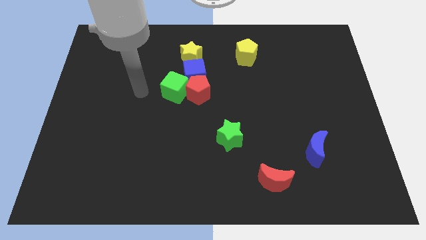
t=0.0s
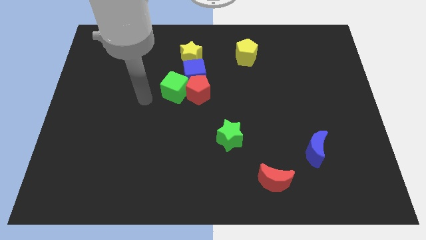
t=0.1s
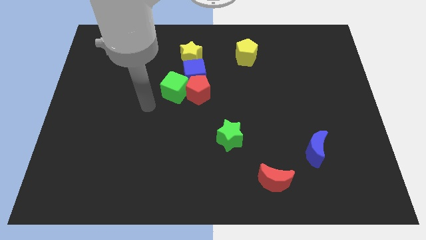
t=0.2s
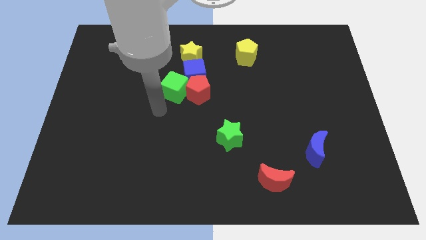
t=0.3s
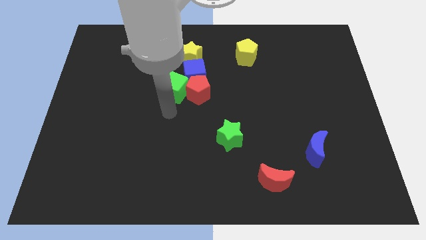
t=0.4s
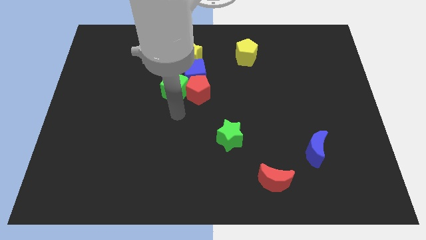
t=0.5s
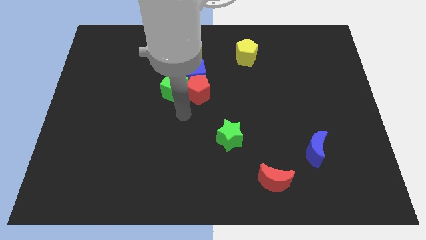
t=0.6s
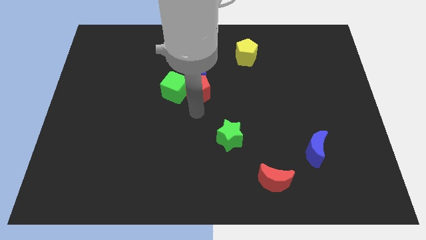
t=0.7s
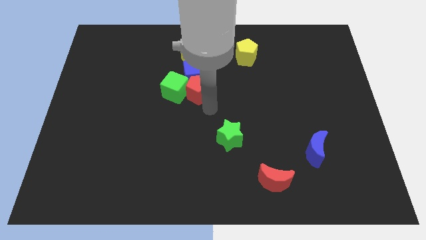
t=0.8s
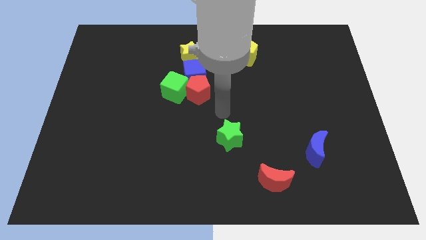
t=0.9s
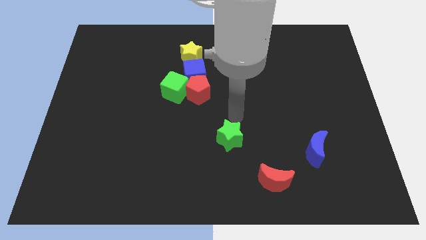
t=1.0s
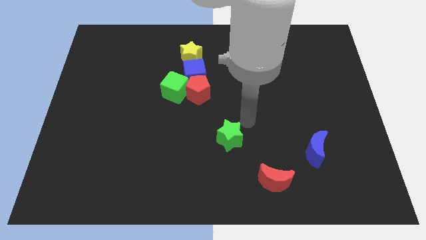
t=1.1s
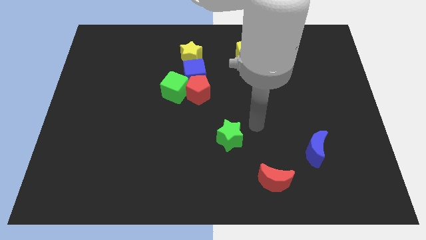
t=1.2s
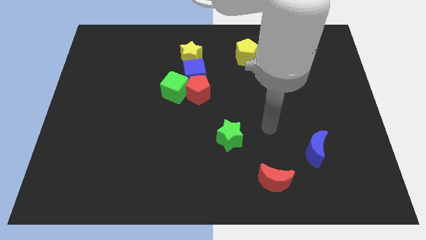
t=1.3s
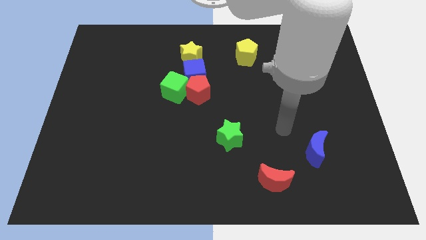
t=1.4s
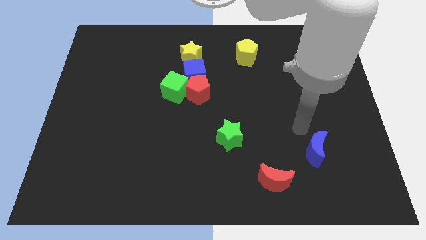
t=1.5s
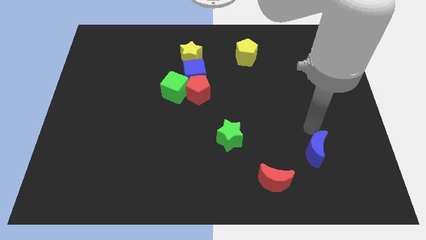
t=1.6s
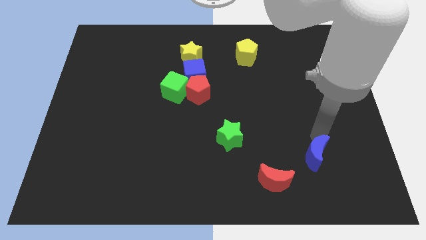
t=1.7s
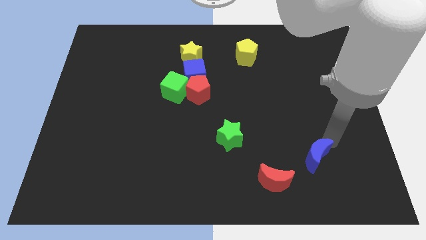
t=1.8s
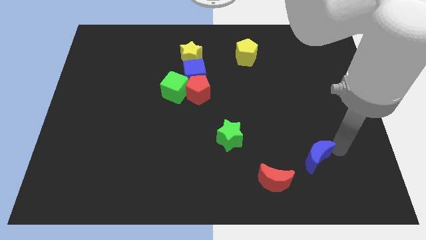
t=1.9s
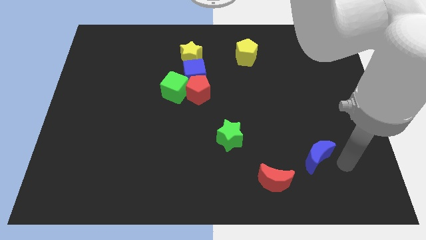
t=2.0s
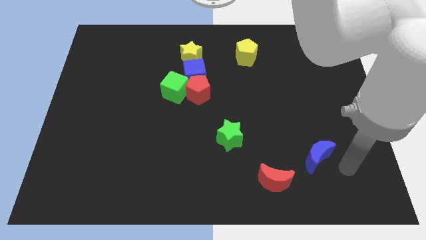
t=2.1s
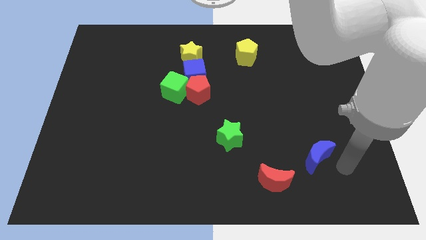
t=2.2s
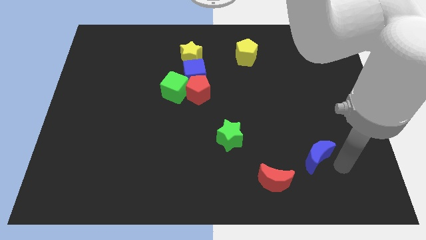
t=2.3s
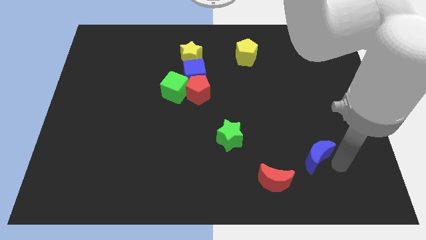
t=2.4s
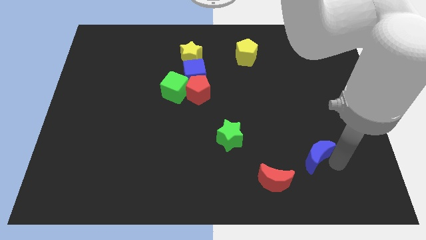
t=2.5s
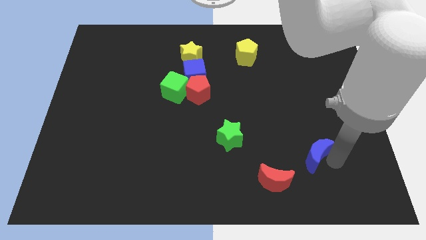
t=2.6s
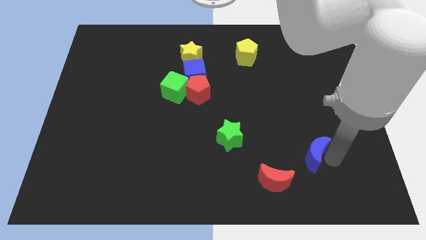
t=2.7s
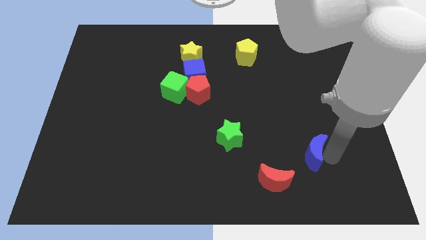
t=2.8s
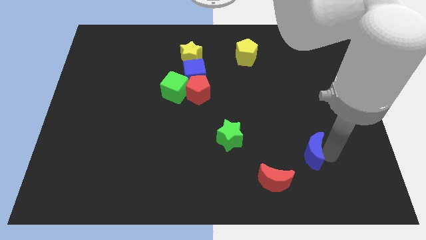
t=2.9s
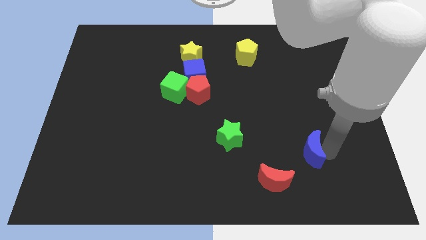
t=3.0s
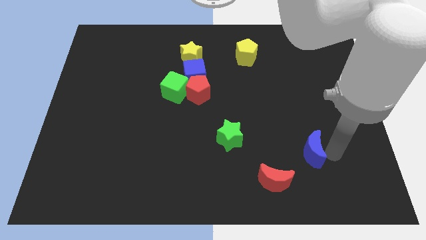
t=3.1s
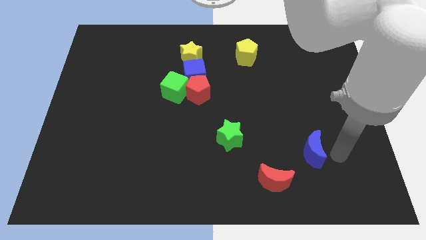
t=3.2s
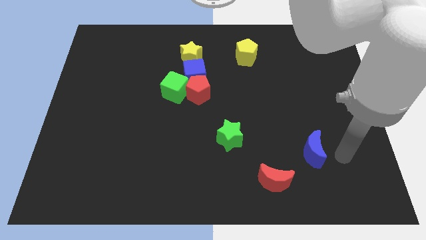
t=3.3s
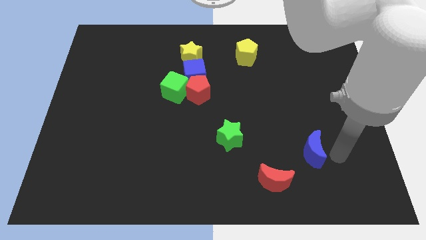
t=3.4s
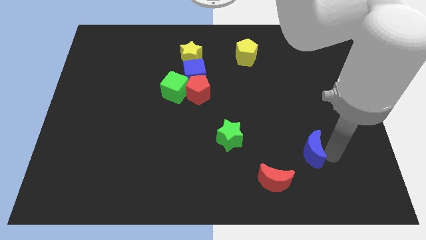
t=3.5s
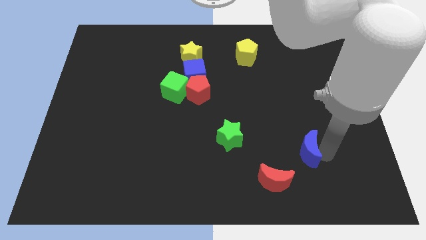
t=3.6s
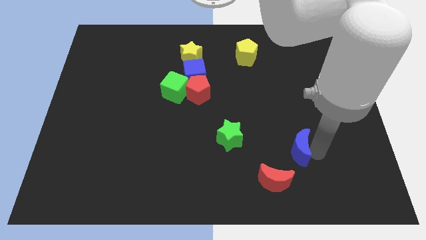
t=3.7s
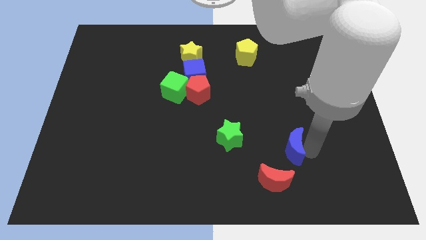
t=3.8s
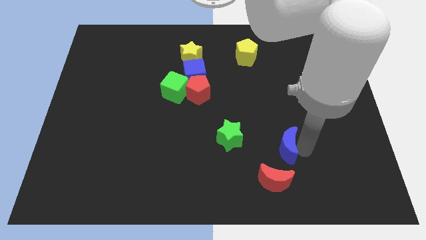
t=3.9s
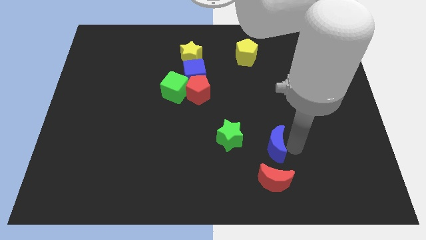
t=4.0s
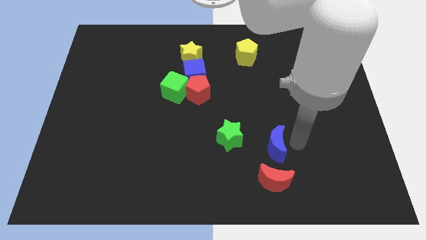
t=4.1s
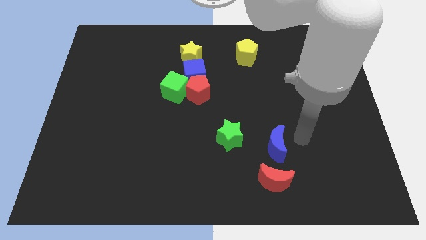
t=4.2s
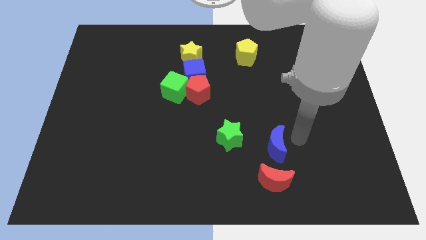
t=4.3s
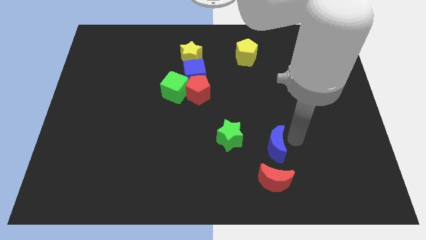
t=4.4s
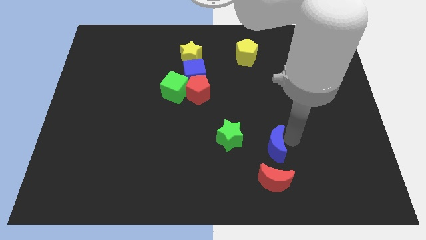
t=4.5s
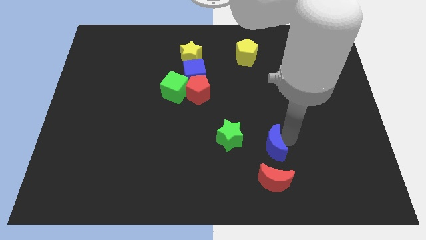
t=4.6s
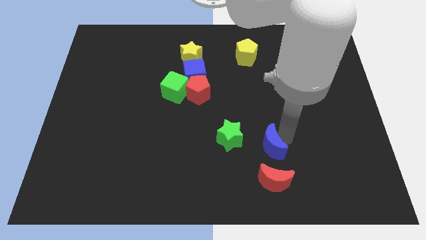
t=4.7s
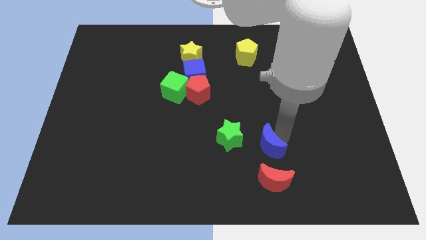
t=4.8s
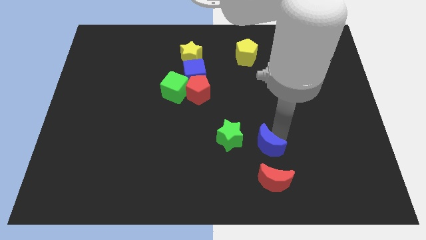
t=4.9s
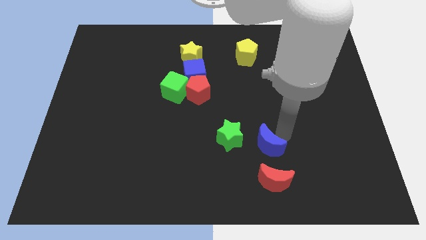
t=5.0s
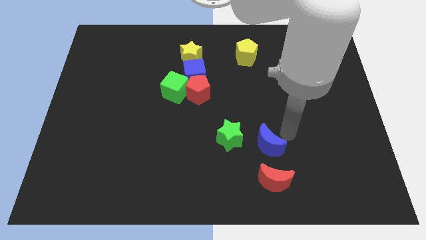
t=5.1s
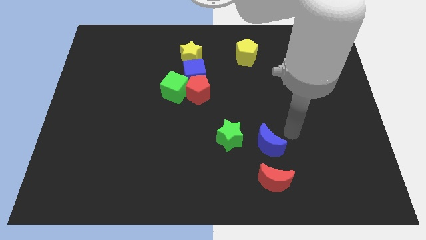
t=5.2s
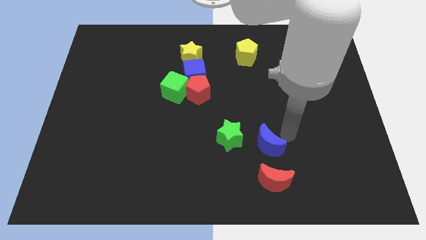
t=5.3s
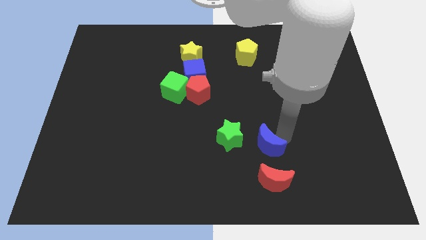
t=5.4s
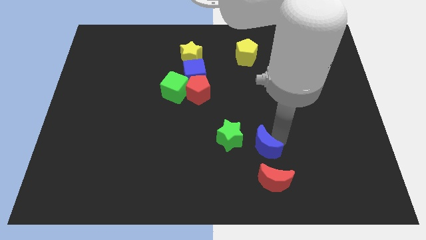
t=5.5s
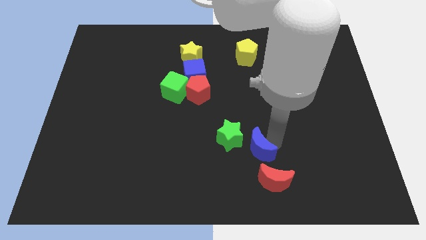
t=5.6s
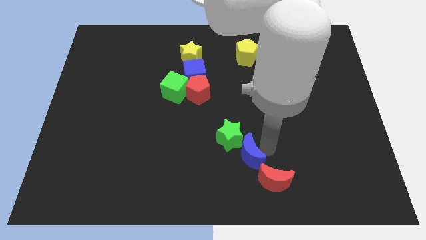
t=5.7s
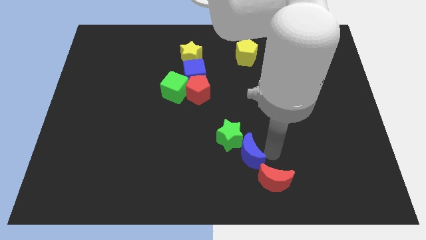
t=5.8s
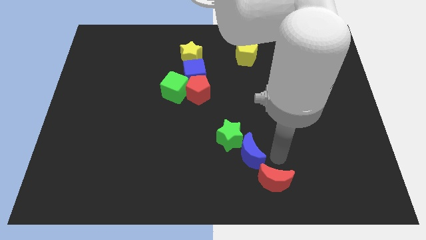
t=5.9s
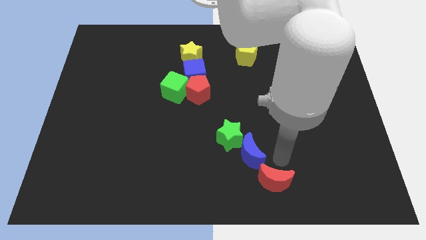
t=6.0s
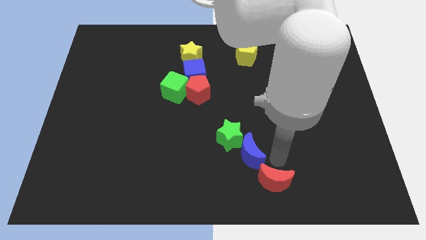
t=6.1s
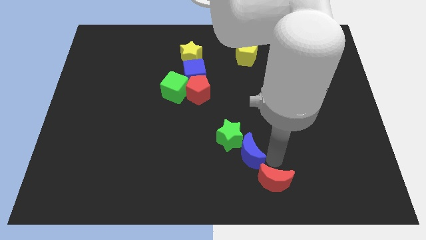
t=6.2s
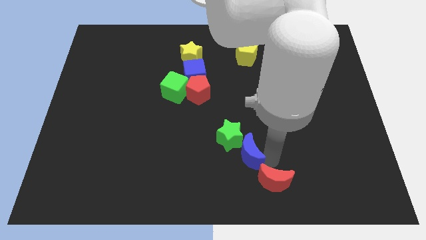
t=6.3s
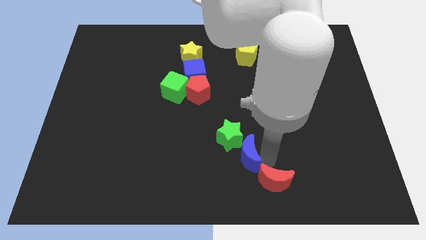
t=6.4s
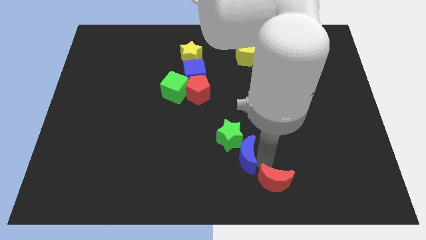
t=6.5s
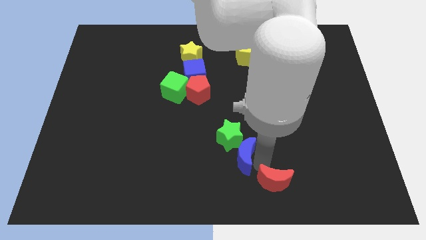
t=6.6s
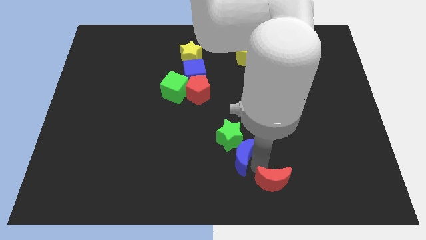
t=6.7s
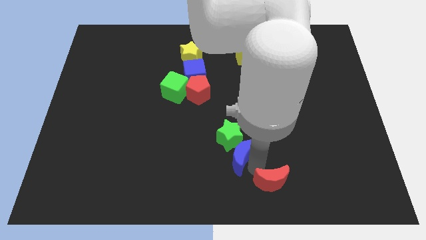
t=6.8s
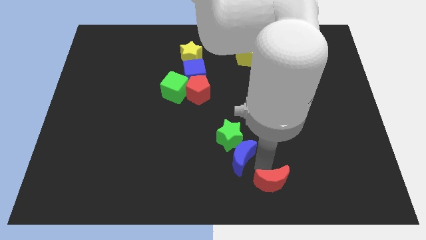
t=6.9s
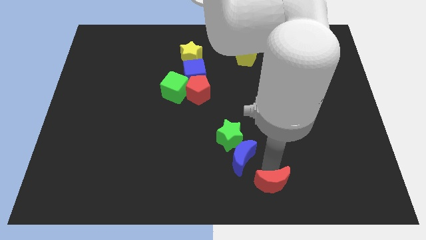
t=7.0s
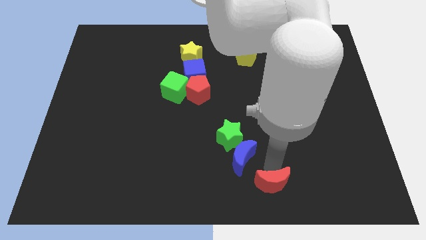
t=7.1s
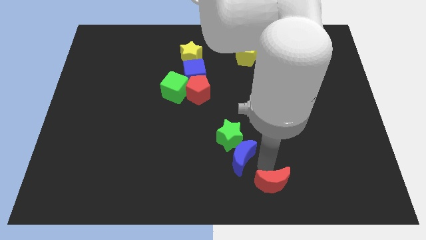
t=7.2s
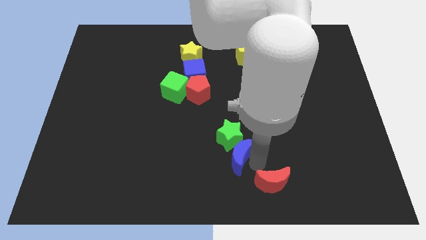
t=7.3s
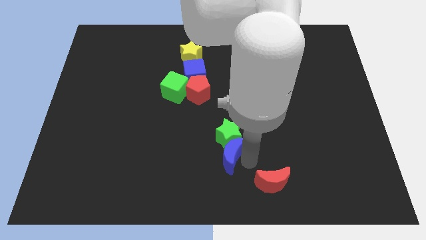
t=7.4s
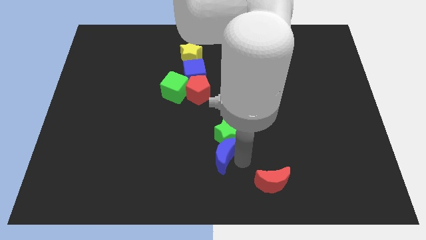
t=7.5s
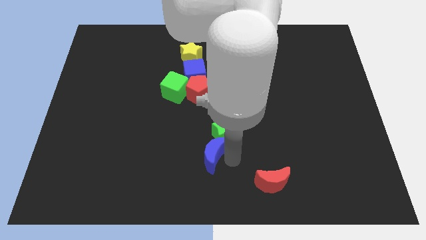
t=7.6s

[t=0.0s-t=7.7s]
slide the blue moon left

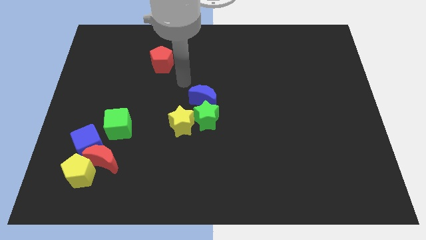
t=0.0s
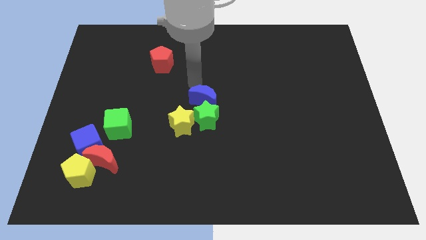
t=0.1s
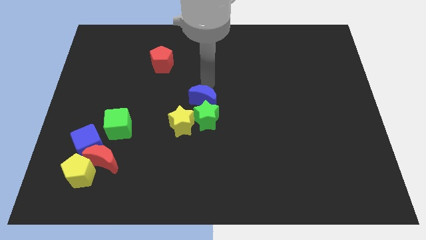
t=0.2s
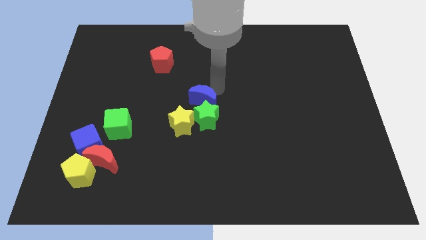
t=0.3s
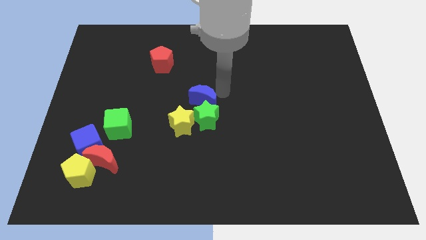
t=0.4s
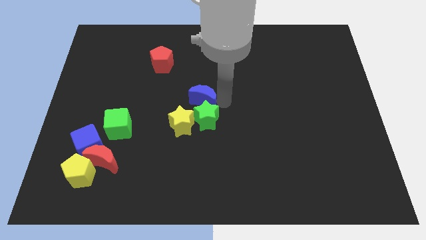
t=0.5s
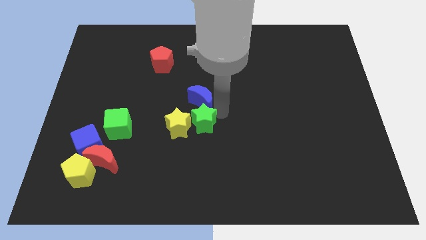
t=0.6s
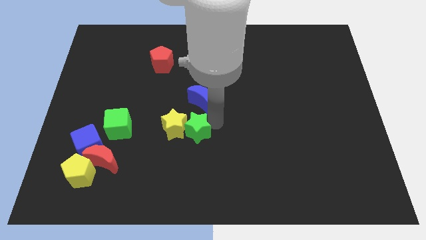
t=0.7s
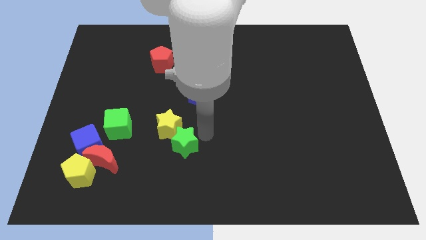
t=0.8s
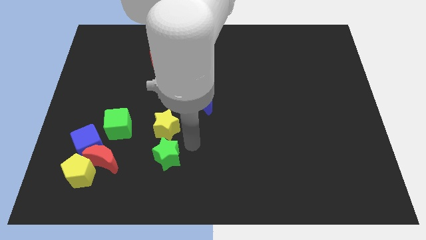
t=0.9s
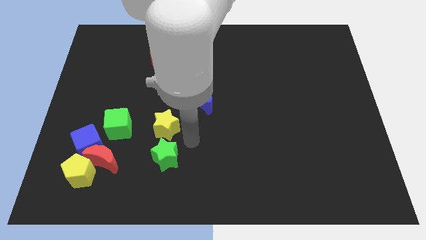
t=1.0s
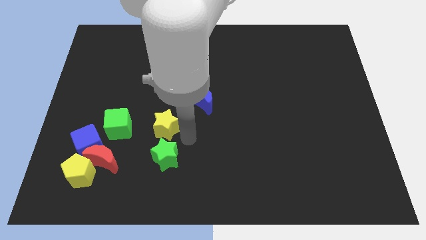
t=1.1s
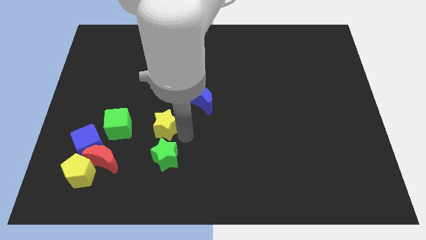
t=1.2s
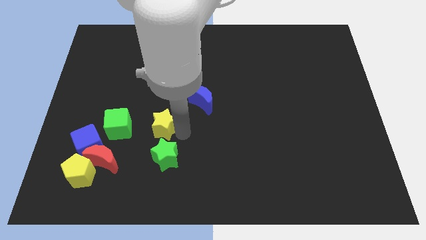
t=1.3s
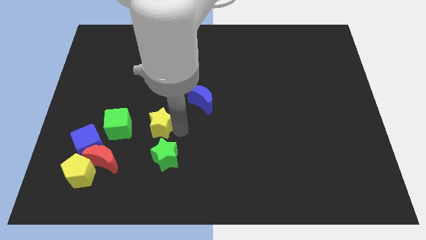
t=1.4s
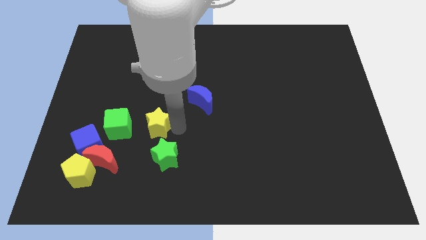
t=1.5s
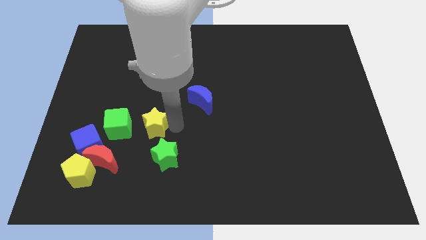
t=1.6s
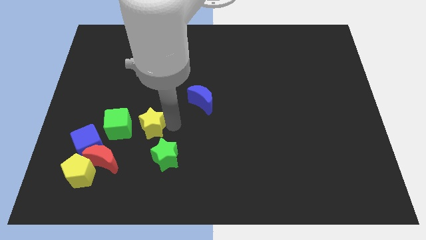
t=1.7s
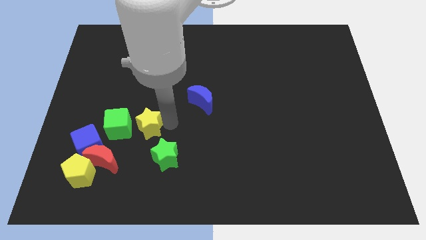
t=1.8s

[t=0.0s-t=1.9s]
slightly push the yellow star left
